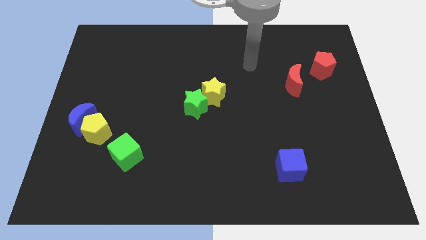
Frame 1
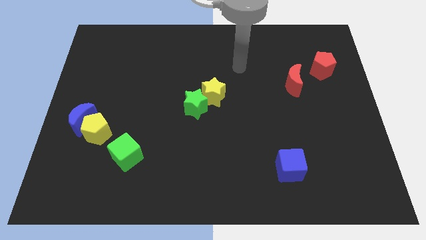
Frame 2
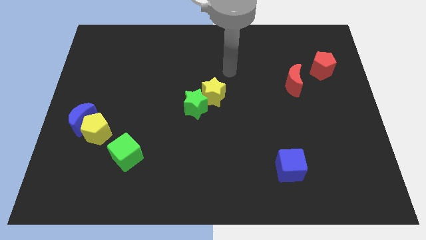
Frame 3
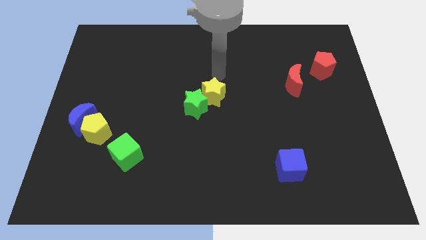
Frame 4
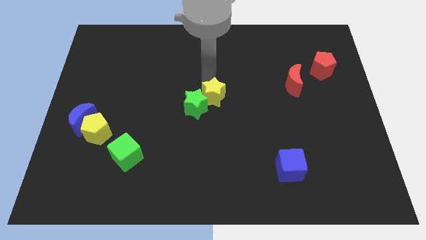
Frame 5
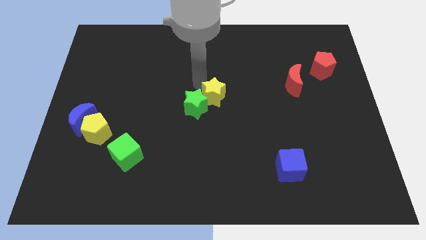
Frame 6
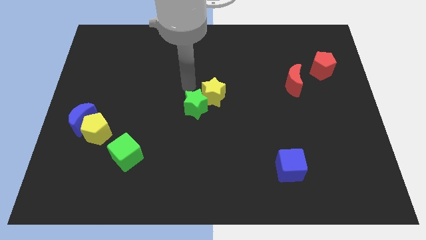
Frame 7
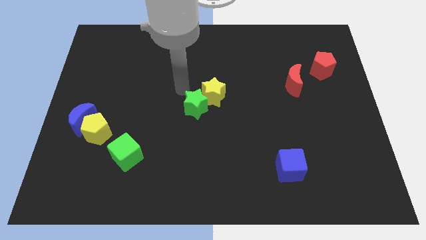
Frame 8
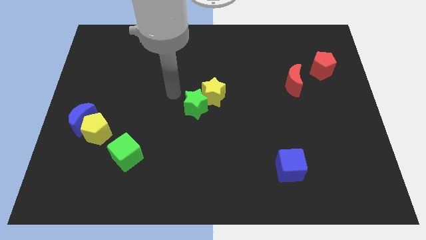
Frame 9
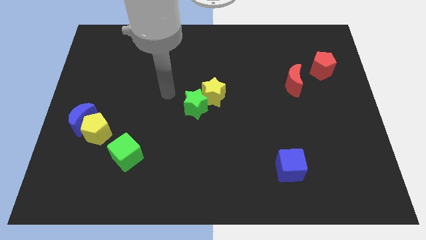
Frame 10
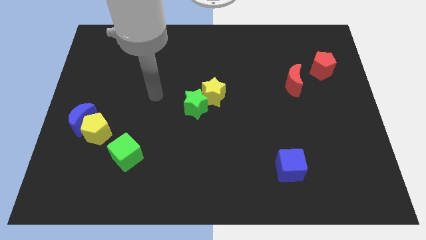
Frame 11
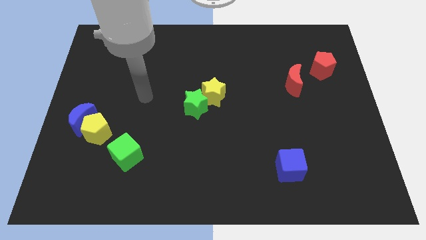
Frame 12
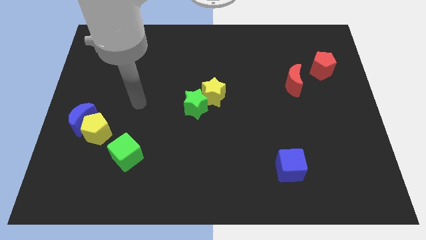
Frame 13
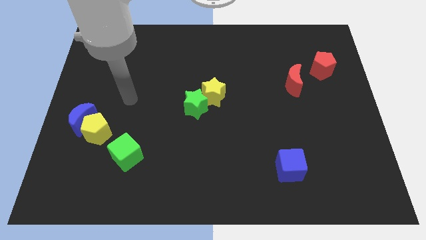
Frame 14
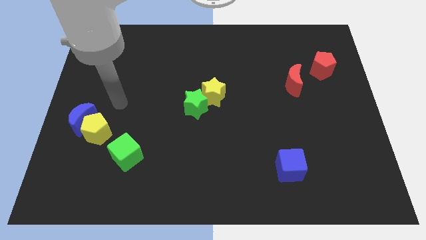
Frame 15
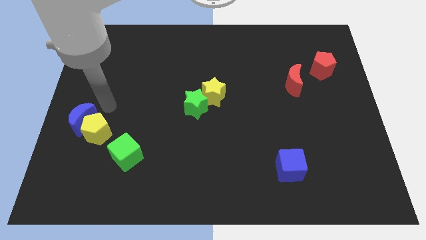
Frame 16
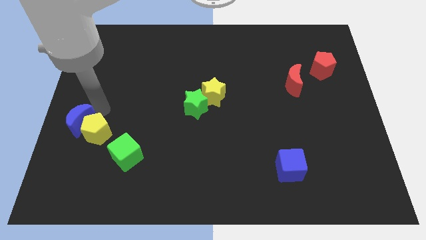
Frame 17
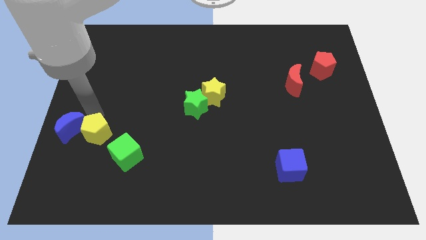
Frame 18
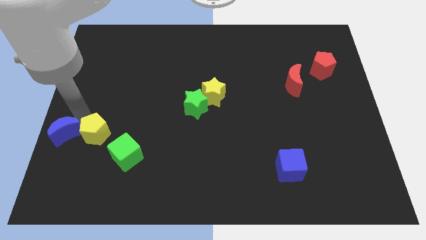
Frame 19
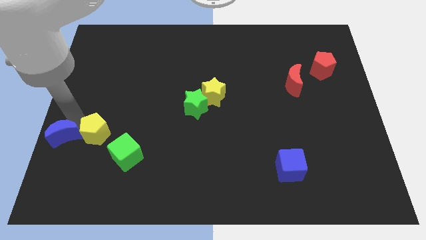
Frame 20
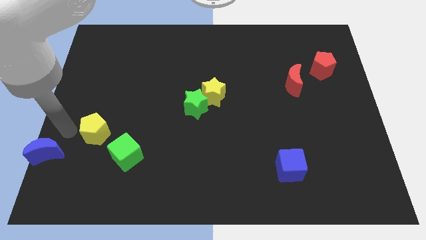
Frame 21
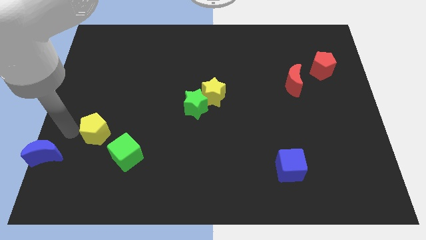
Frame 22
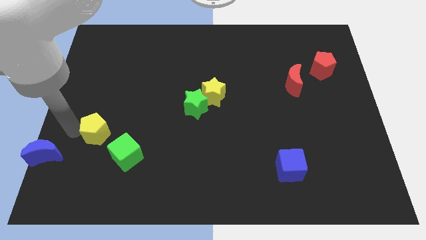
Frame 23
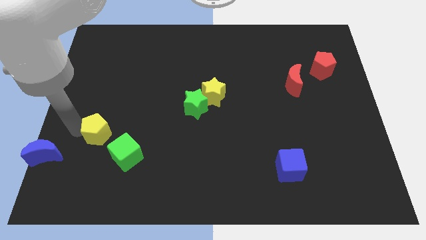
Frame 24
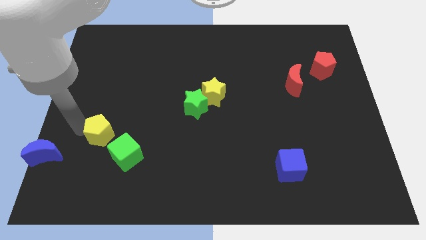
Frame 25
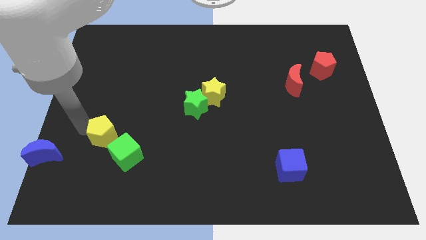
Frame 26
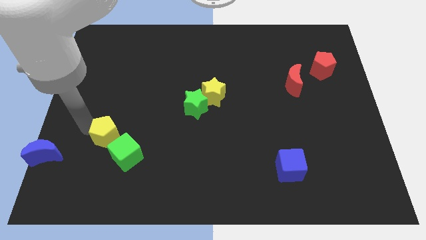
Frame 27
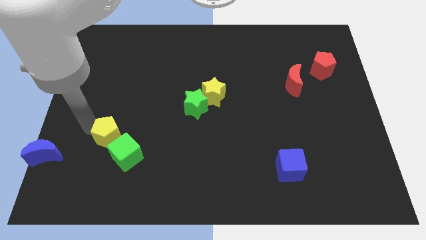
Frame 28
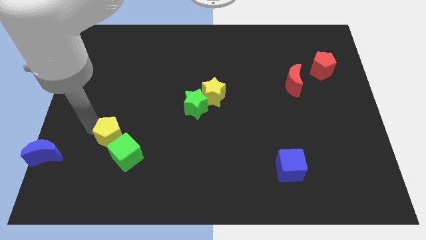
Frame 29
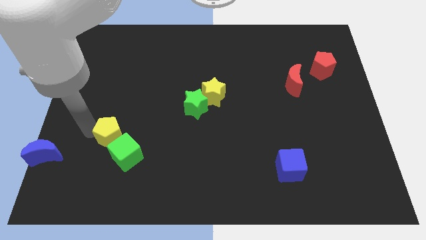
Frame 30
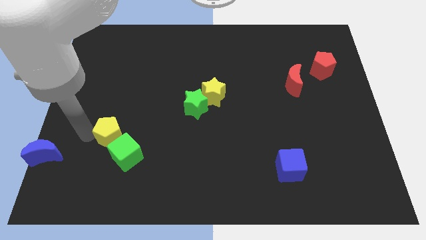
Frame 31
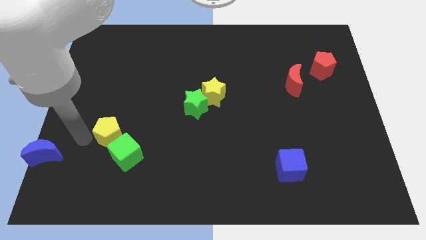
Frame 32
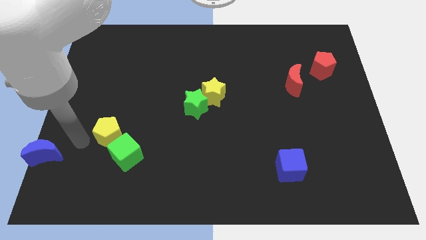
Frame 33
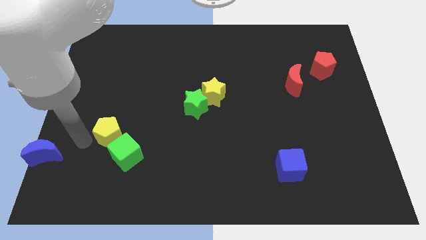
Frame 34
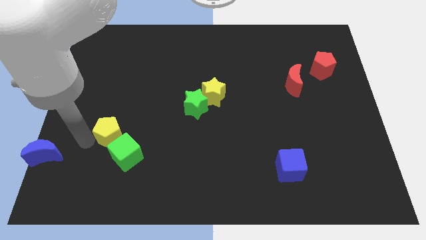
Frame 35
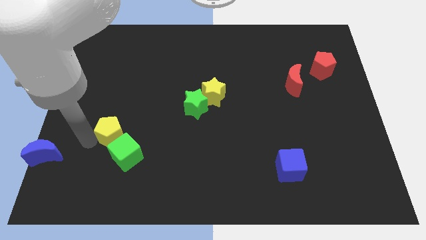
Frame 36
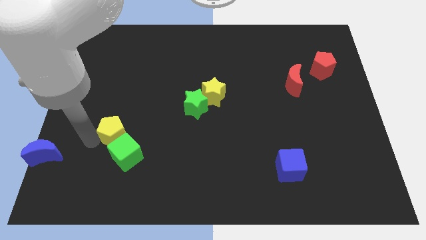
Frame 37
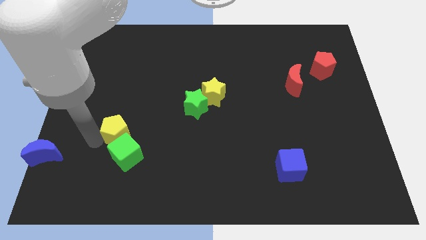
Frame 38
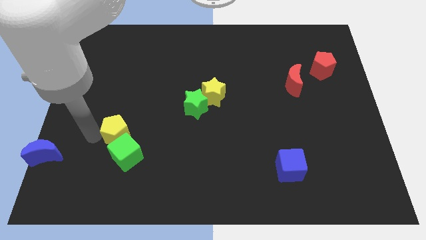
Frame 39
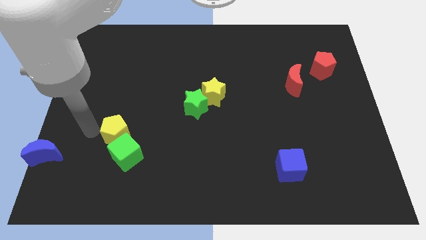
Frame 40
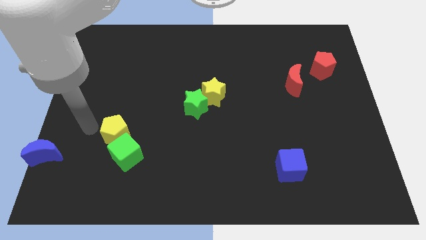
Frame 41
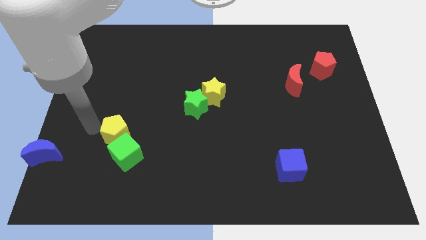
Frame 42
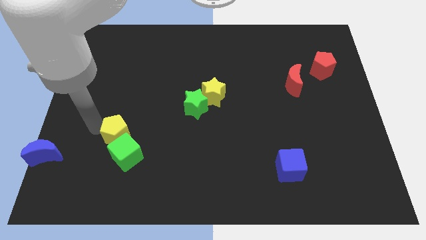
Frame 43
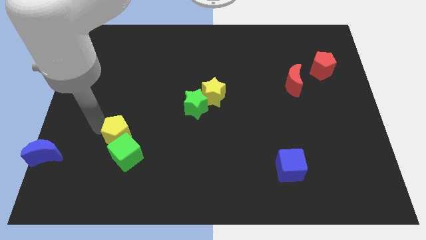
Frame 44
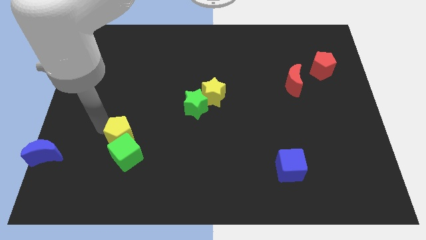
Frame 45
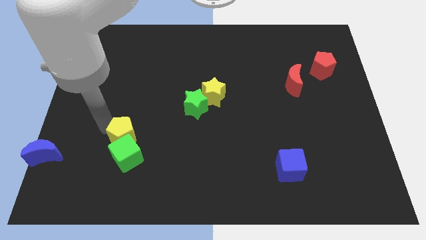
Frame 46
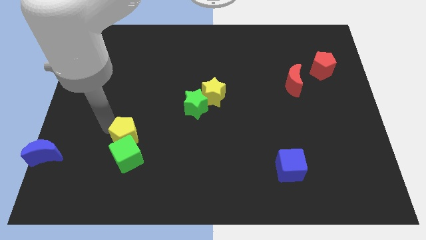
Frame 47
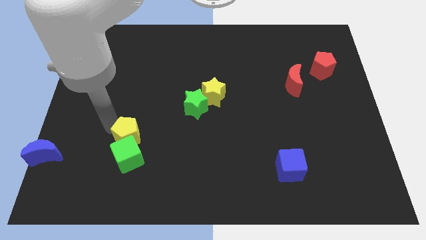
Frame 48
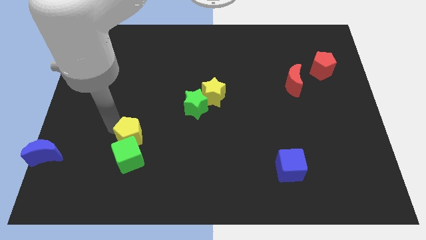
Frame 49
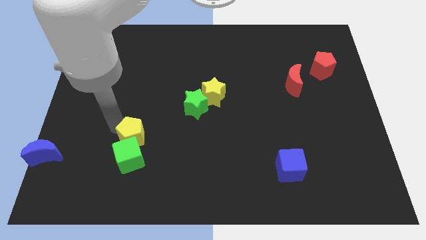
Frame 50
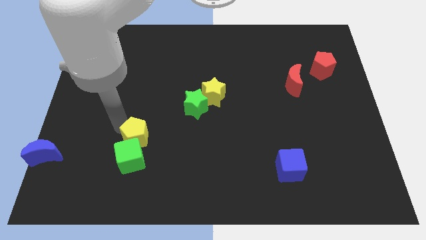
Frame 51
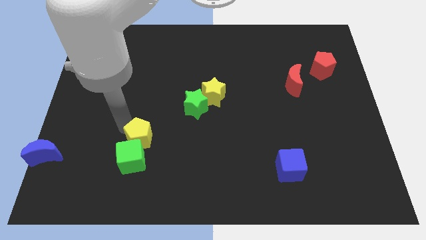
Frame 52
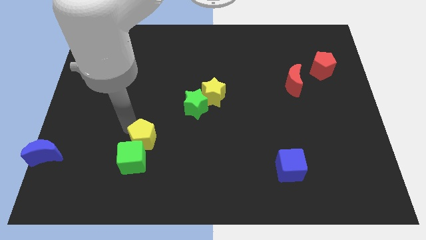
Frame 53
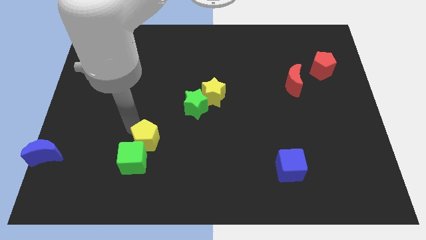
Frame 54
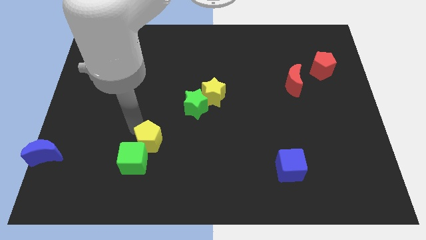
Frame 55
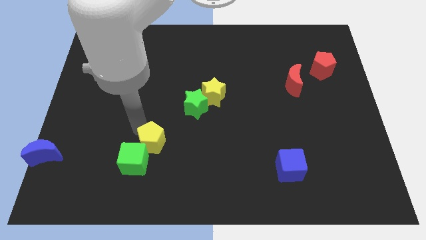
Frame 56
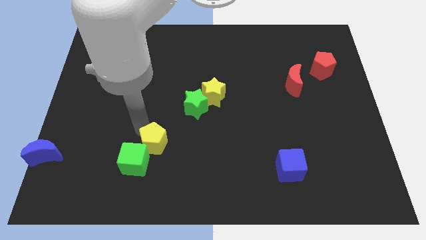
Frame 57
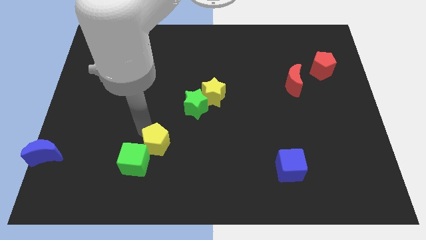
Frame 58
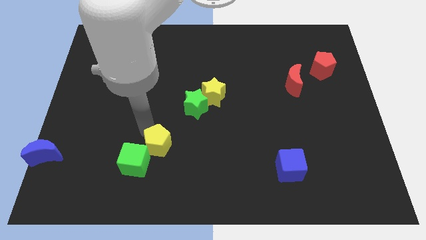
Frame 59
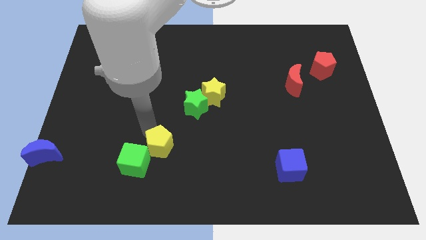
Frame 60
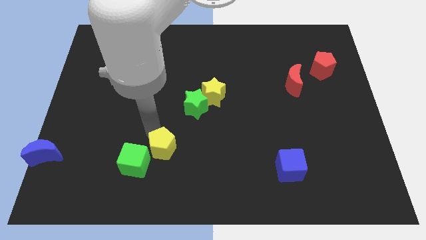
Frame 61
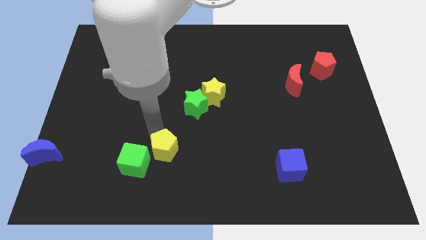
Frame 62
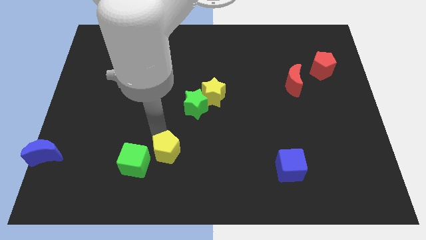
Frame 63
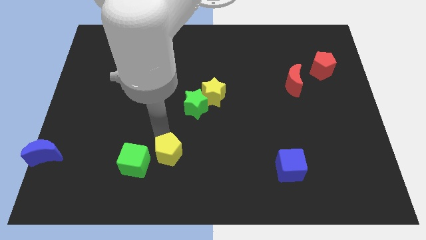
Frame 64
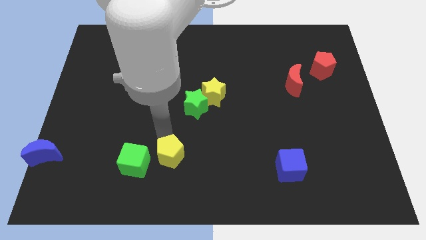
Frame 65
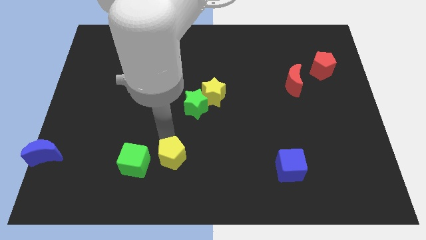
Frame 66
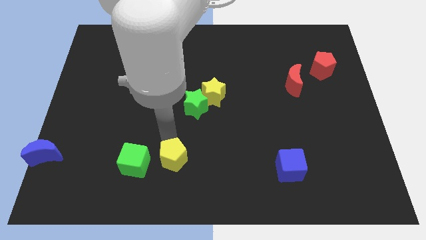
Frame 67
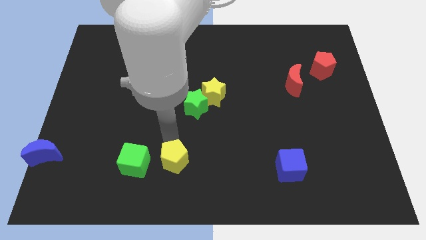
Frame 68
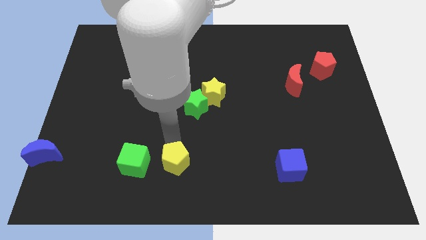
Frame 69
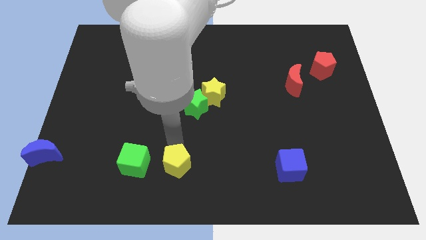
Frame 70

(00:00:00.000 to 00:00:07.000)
slide the yellow pentagon to the bottom side
